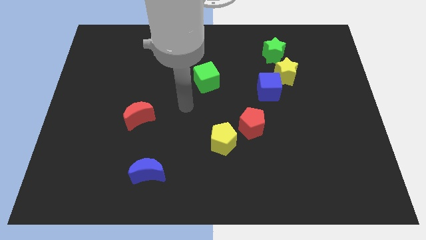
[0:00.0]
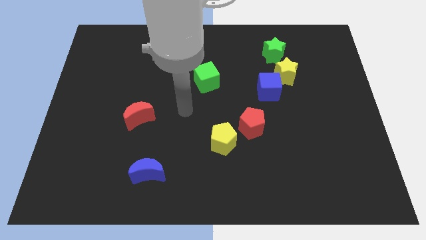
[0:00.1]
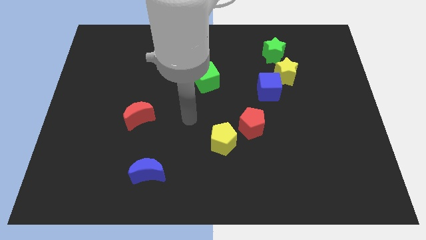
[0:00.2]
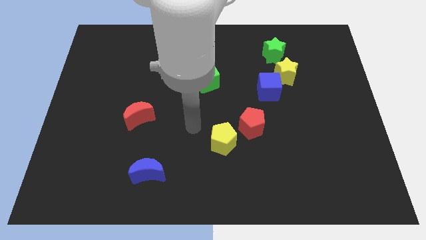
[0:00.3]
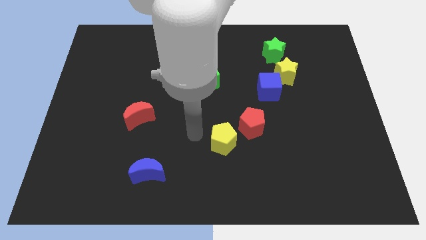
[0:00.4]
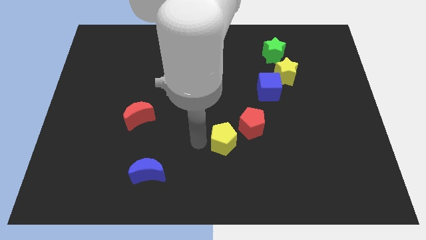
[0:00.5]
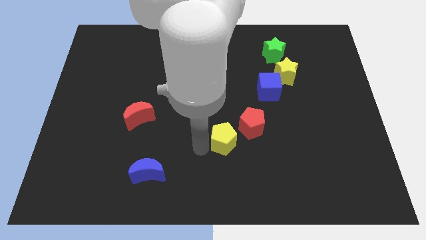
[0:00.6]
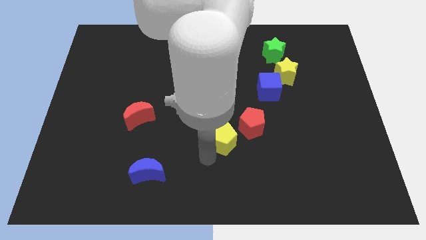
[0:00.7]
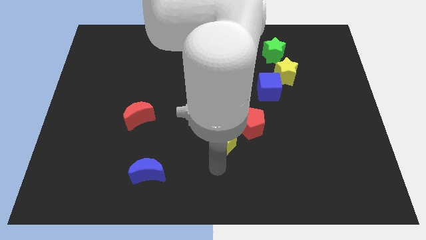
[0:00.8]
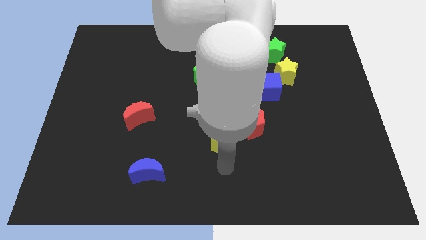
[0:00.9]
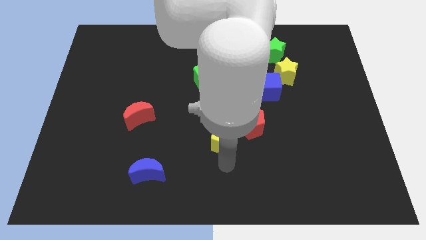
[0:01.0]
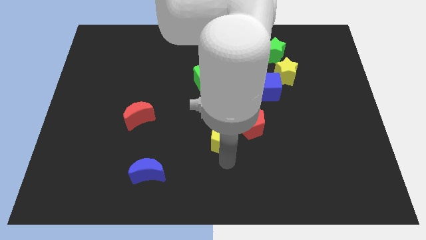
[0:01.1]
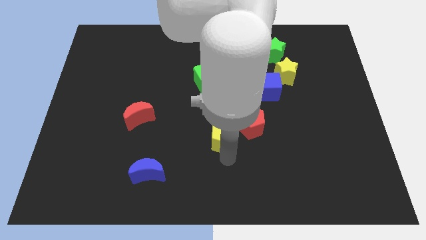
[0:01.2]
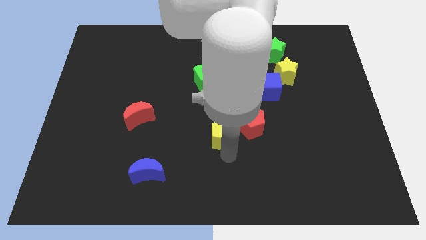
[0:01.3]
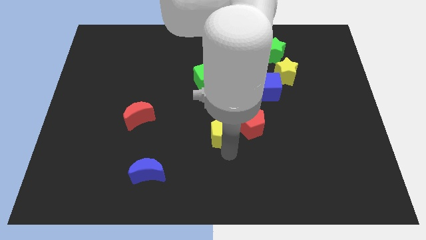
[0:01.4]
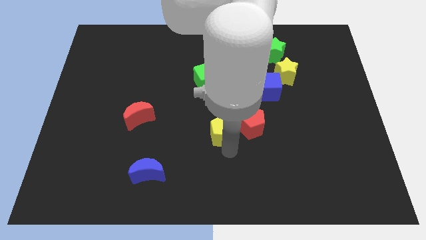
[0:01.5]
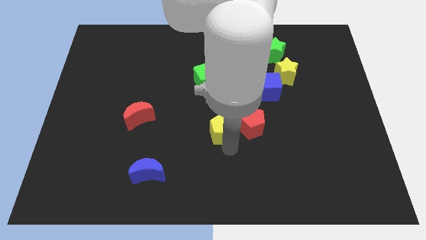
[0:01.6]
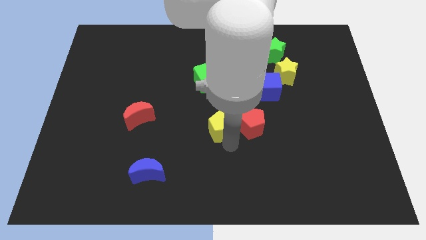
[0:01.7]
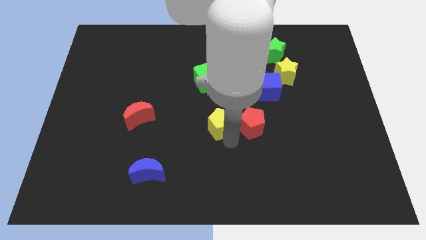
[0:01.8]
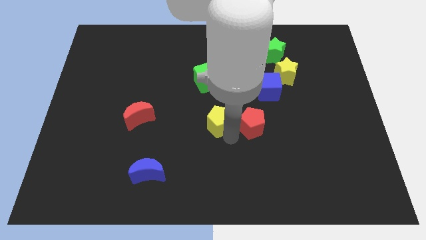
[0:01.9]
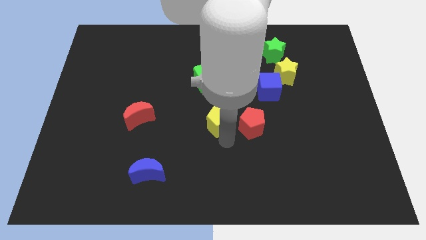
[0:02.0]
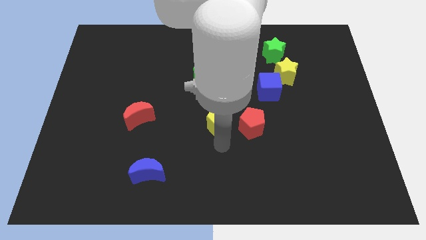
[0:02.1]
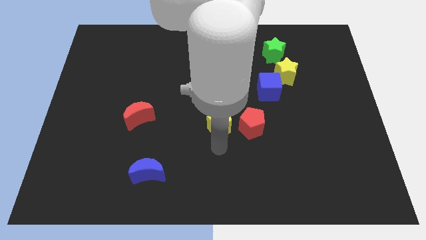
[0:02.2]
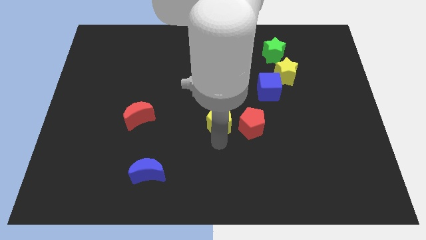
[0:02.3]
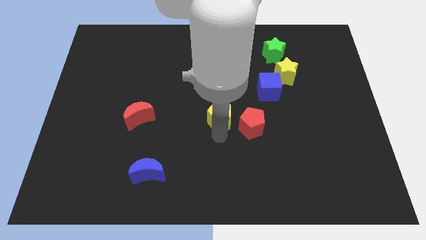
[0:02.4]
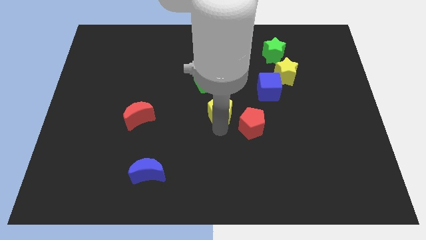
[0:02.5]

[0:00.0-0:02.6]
slightly slide the yellow pentagon upwards

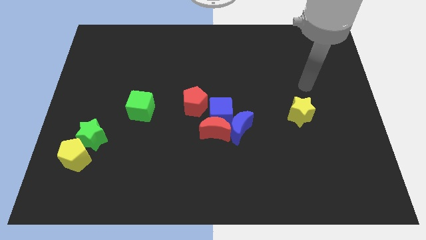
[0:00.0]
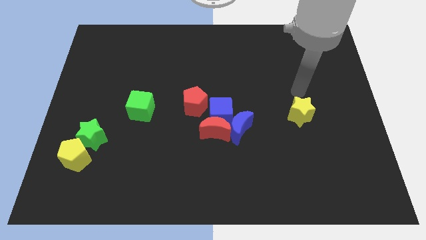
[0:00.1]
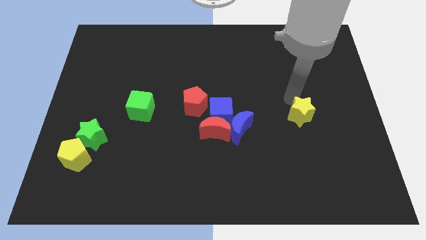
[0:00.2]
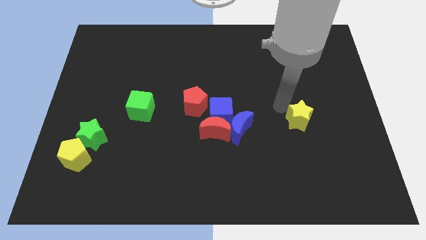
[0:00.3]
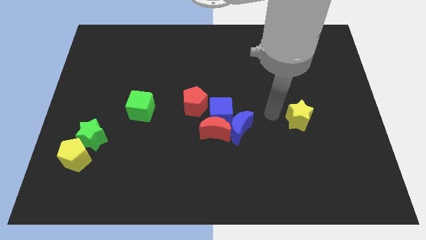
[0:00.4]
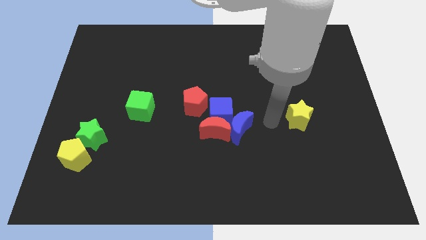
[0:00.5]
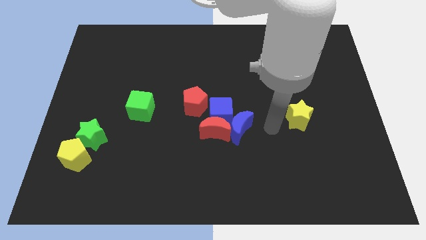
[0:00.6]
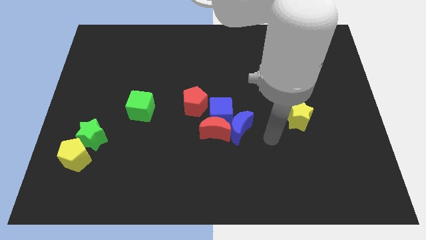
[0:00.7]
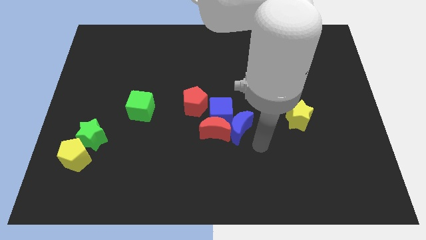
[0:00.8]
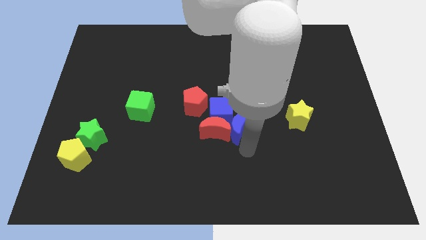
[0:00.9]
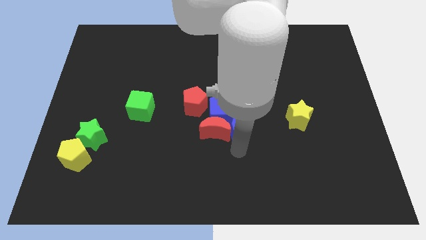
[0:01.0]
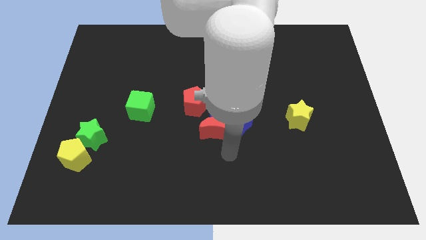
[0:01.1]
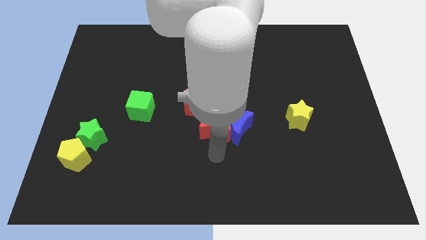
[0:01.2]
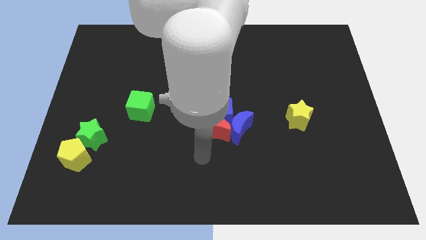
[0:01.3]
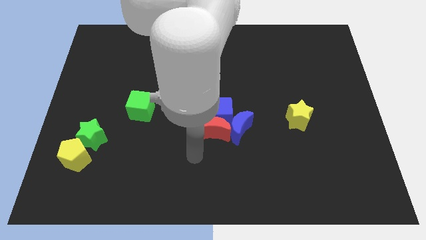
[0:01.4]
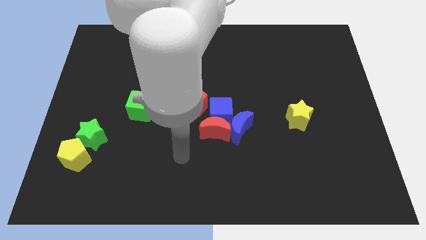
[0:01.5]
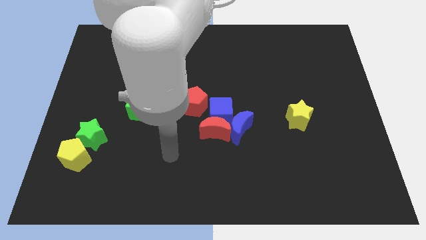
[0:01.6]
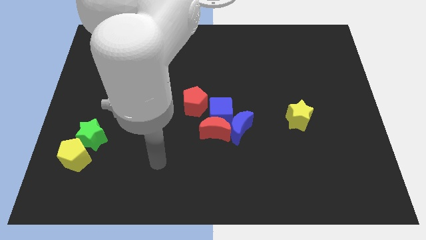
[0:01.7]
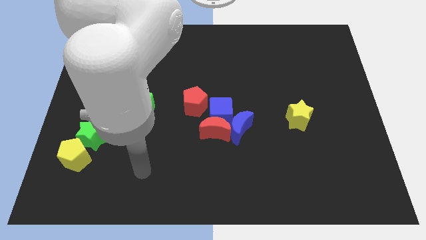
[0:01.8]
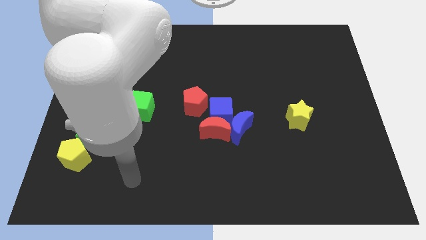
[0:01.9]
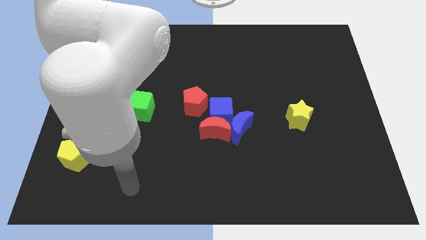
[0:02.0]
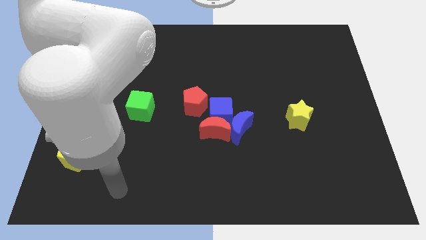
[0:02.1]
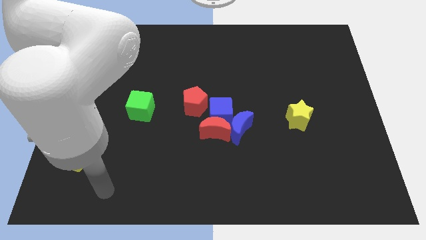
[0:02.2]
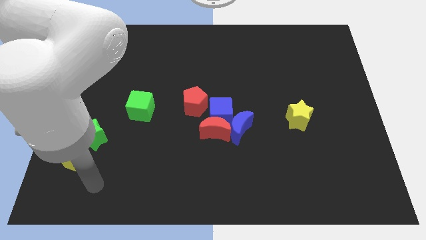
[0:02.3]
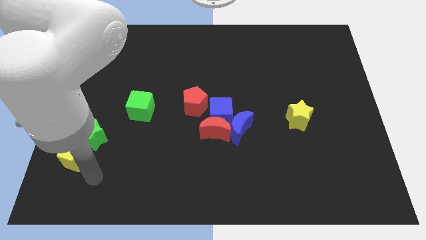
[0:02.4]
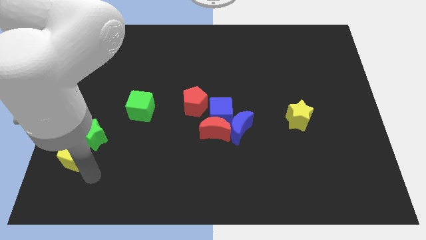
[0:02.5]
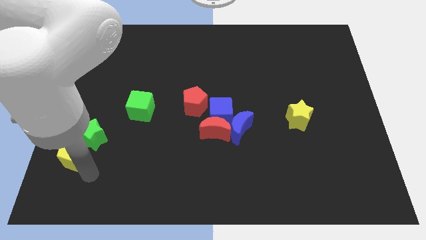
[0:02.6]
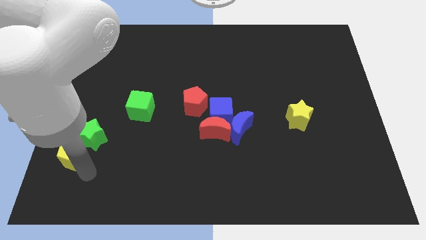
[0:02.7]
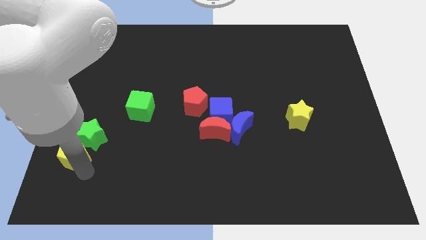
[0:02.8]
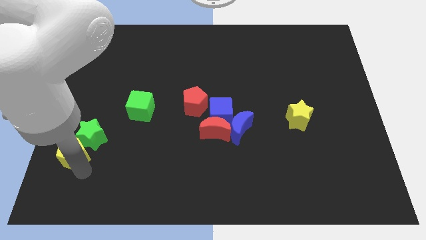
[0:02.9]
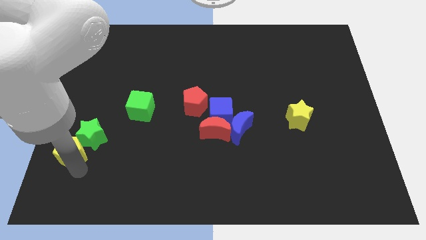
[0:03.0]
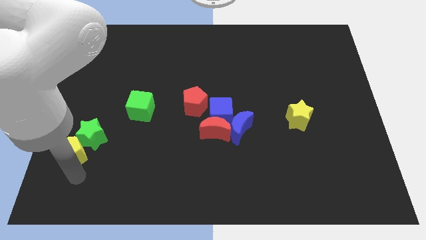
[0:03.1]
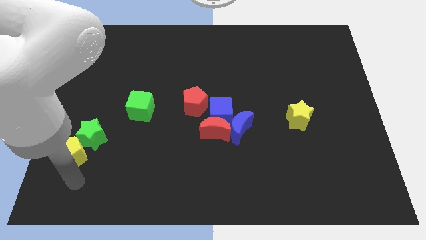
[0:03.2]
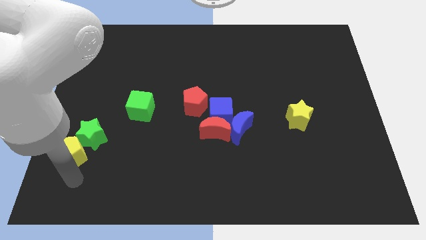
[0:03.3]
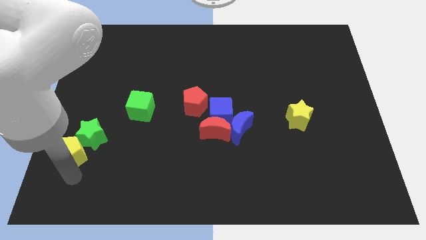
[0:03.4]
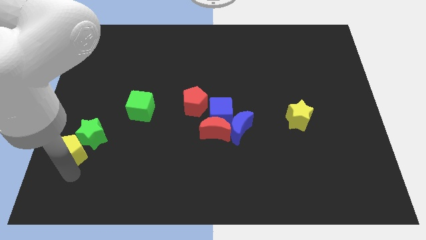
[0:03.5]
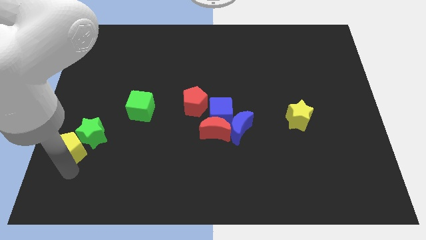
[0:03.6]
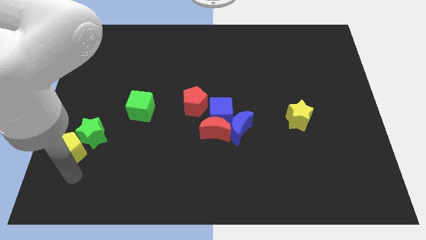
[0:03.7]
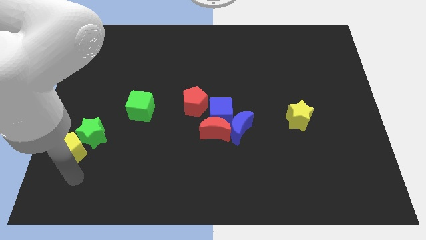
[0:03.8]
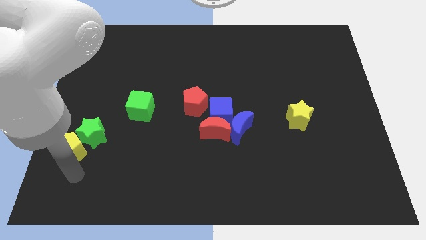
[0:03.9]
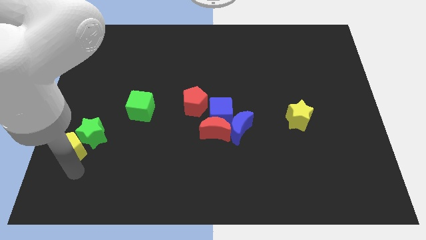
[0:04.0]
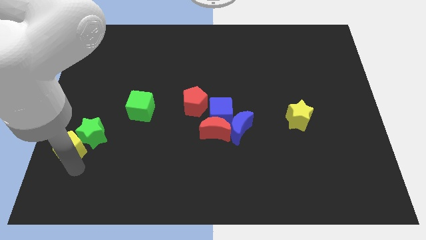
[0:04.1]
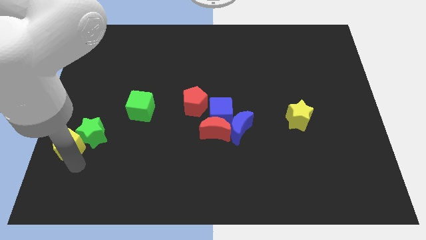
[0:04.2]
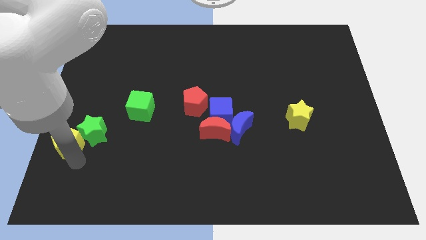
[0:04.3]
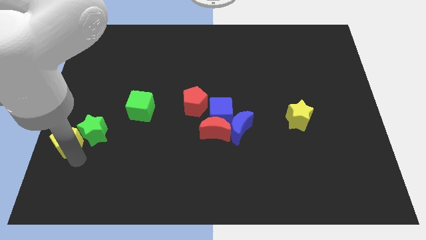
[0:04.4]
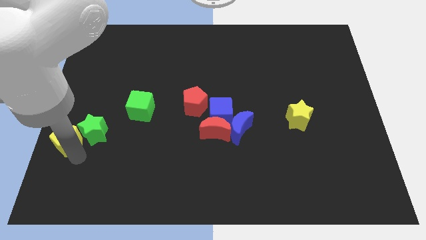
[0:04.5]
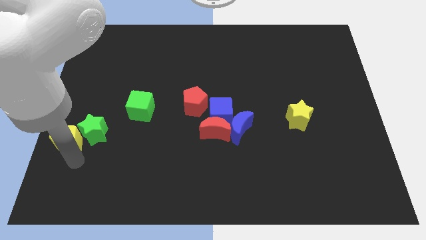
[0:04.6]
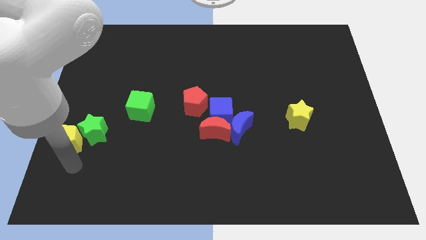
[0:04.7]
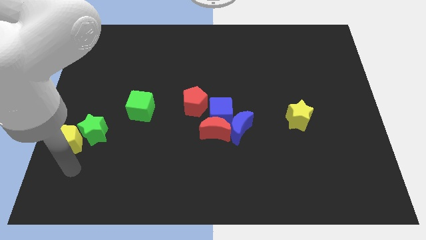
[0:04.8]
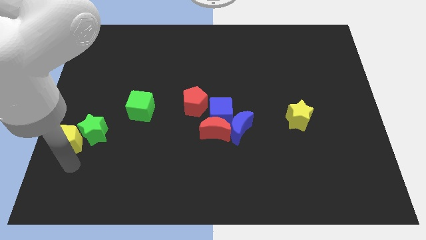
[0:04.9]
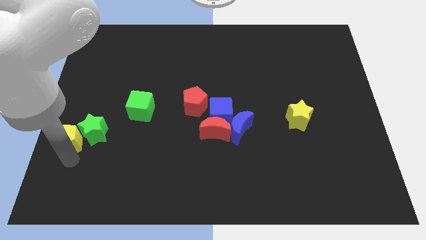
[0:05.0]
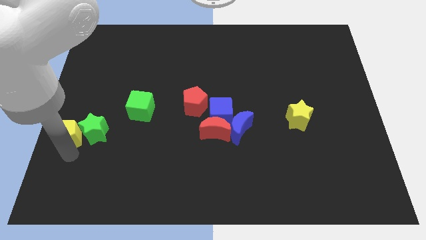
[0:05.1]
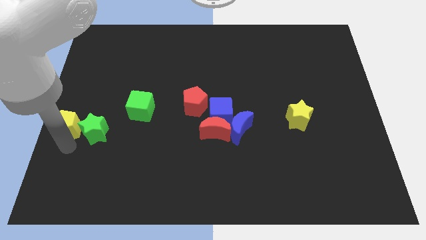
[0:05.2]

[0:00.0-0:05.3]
move the yellow pentagon a little bit upwards
